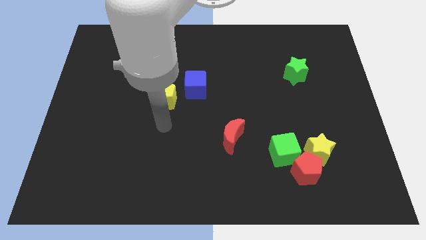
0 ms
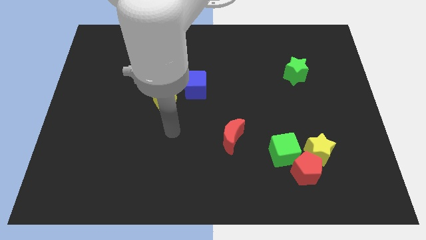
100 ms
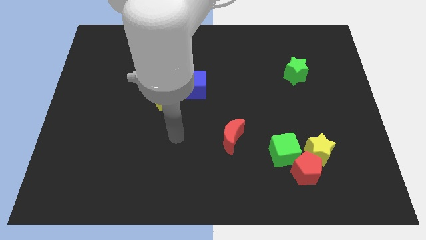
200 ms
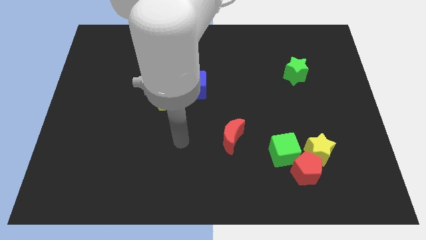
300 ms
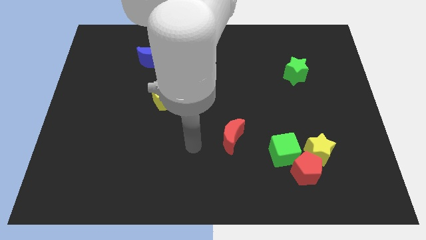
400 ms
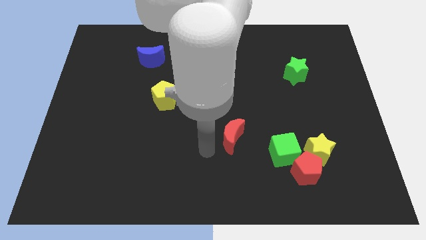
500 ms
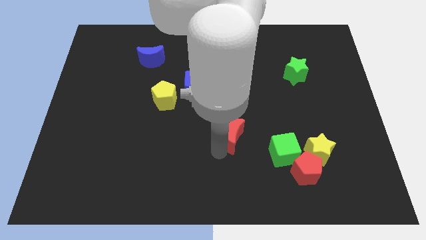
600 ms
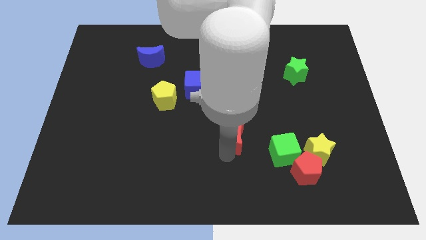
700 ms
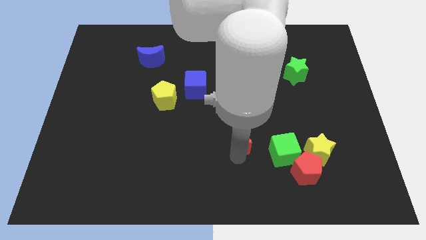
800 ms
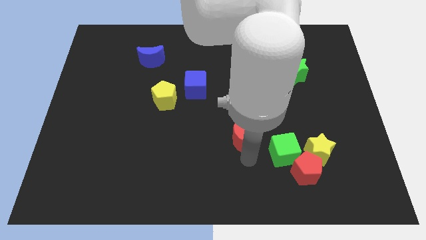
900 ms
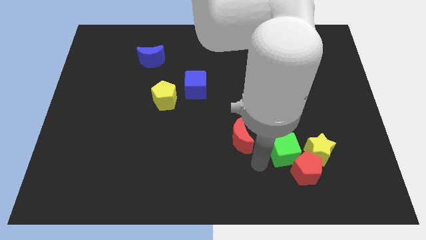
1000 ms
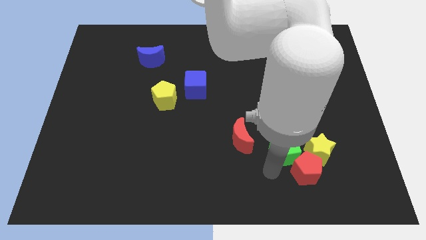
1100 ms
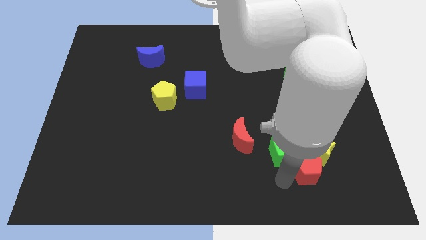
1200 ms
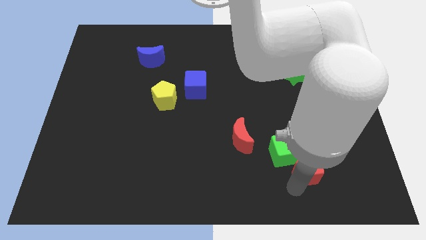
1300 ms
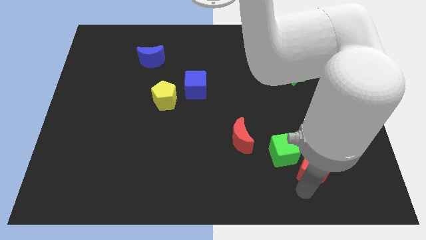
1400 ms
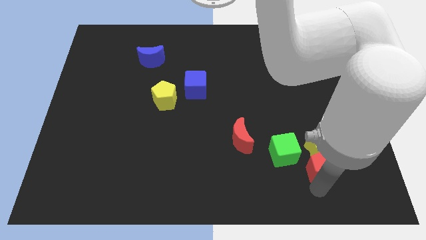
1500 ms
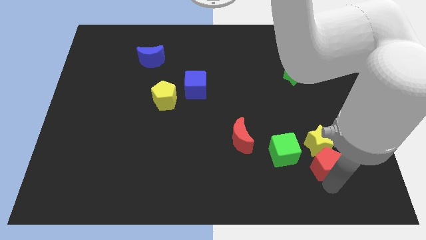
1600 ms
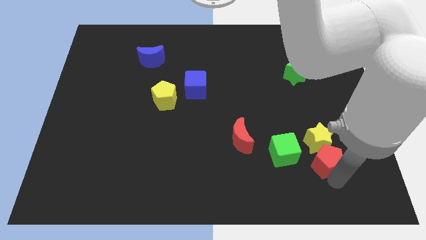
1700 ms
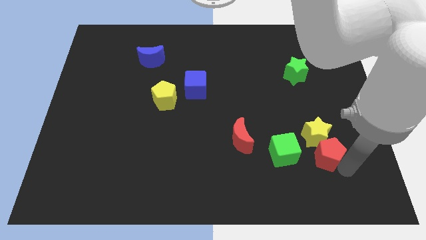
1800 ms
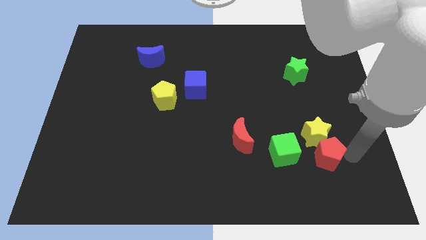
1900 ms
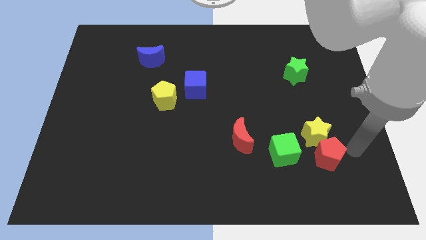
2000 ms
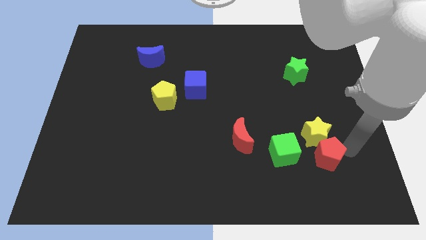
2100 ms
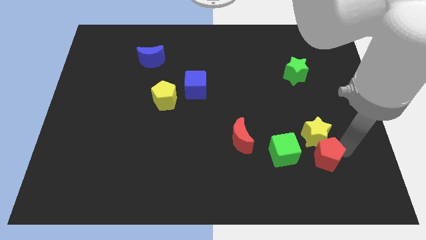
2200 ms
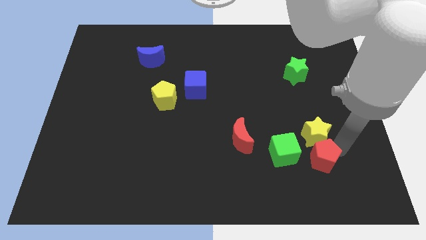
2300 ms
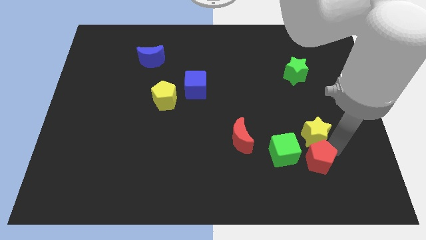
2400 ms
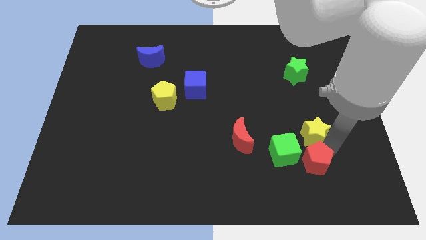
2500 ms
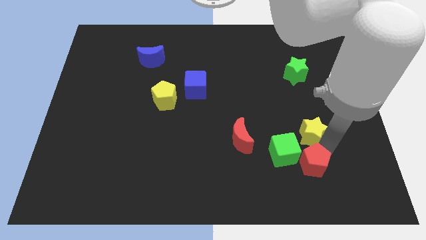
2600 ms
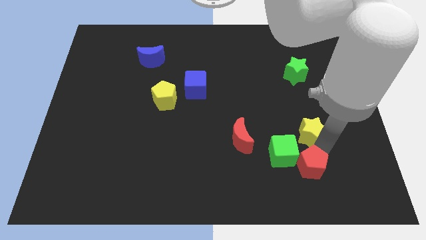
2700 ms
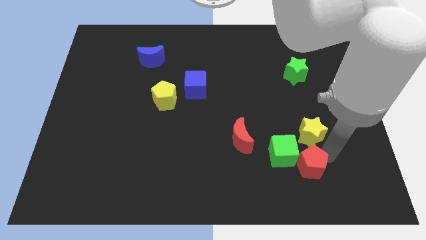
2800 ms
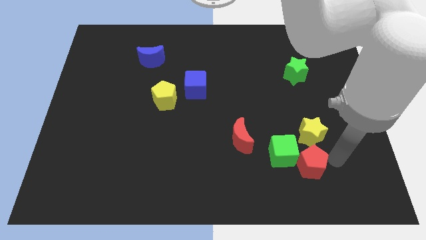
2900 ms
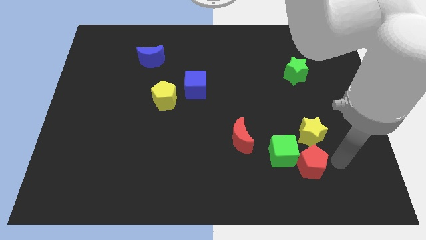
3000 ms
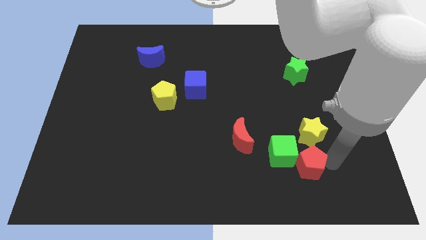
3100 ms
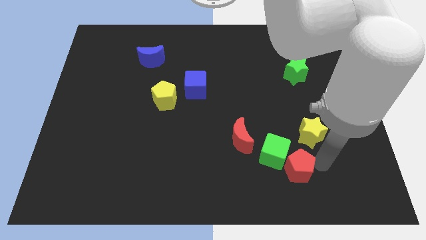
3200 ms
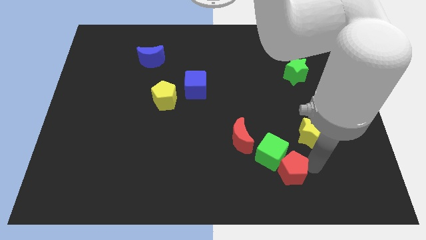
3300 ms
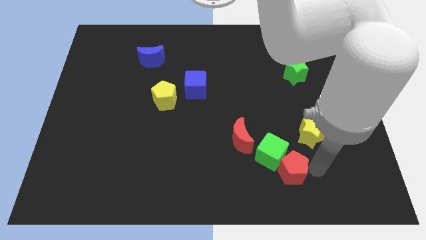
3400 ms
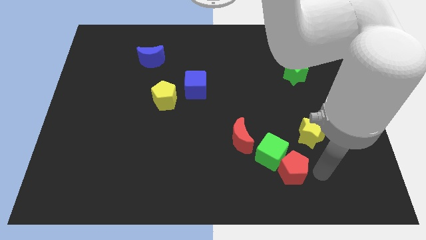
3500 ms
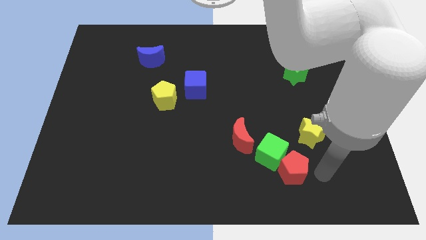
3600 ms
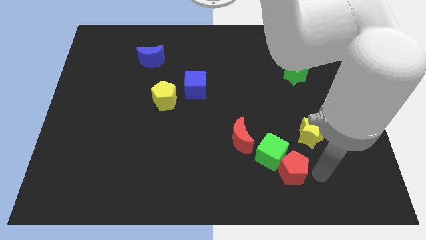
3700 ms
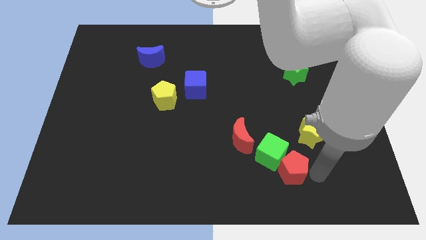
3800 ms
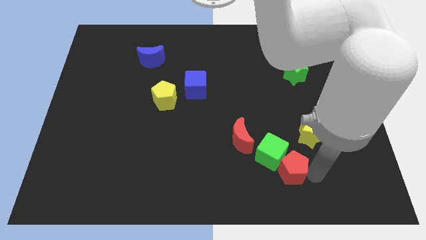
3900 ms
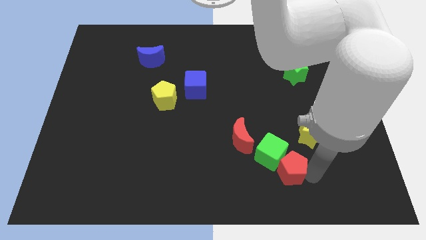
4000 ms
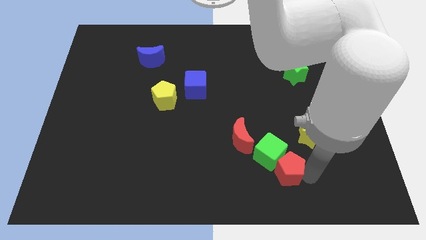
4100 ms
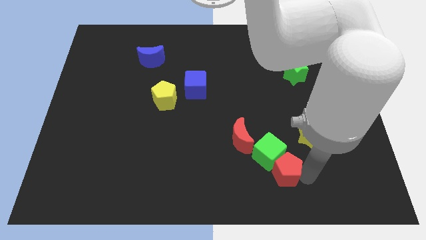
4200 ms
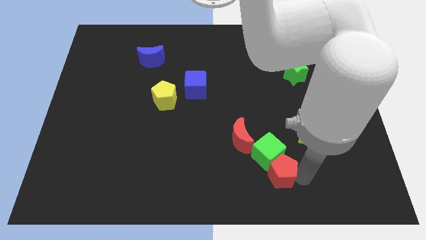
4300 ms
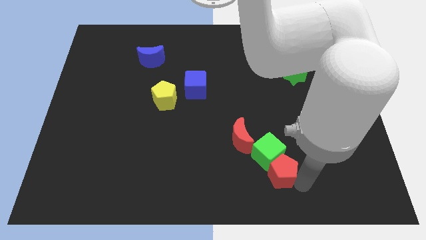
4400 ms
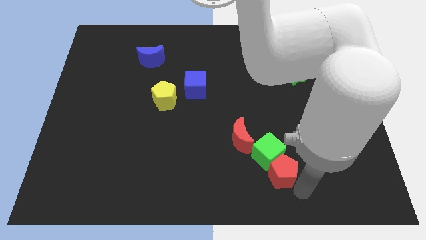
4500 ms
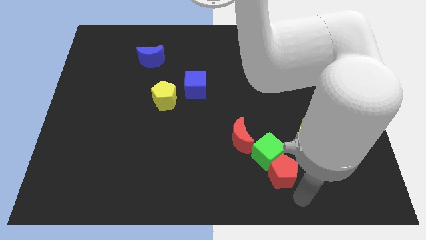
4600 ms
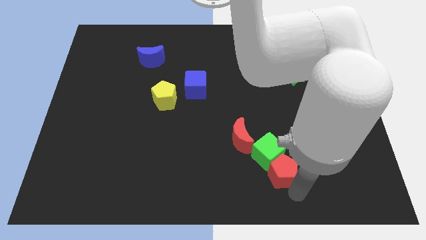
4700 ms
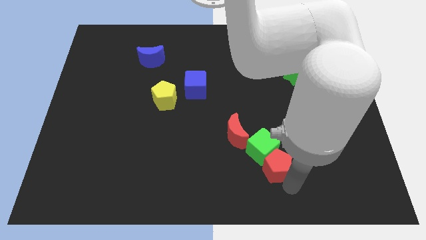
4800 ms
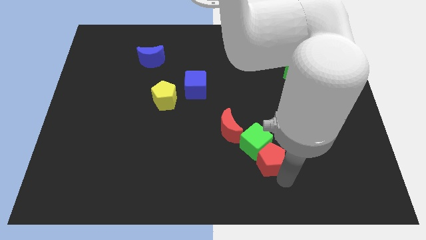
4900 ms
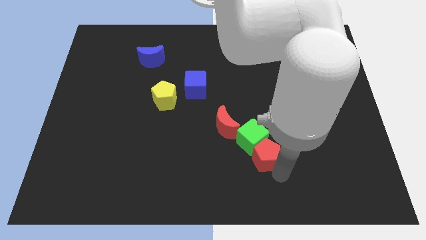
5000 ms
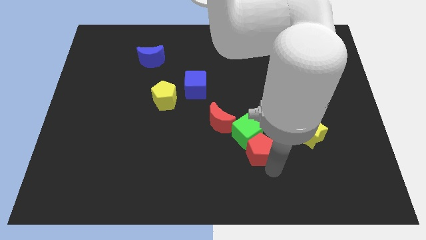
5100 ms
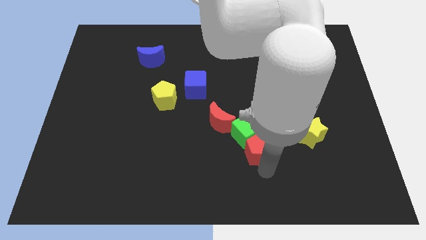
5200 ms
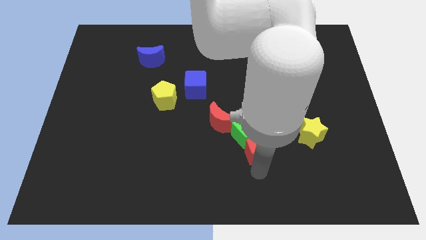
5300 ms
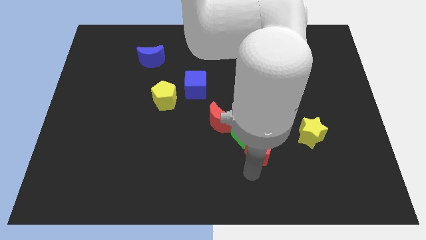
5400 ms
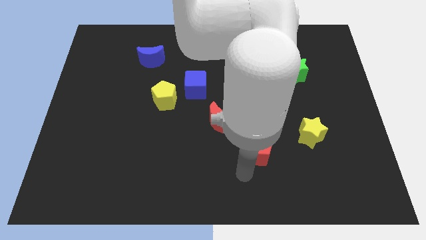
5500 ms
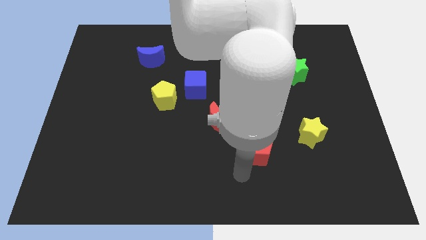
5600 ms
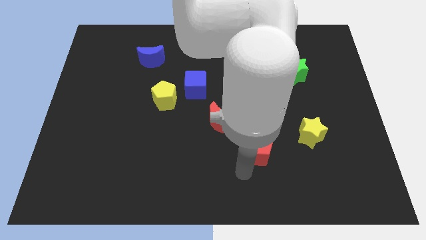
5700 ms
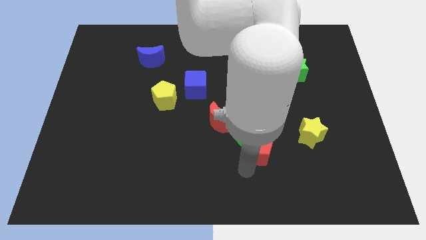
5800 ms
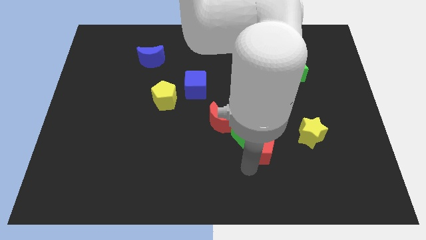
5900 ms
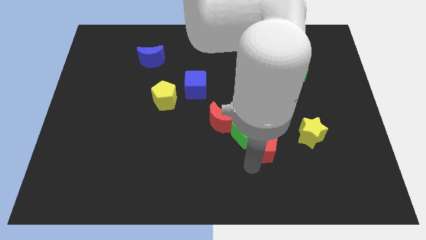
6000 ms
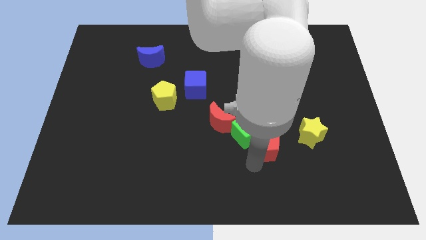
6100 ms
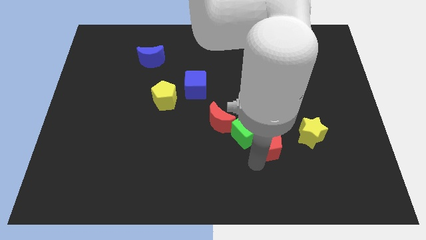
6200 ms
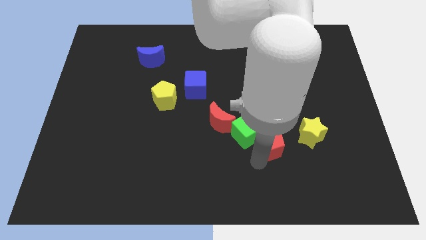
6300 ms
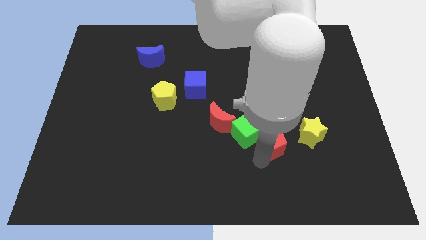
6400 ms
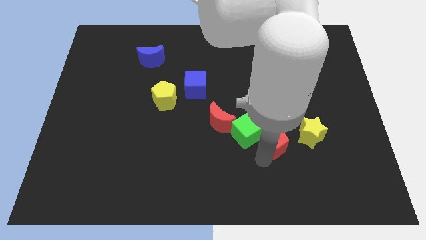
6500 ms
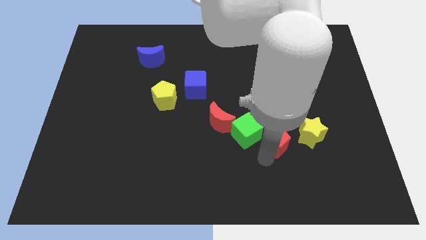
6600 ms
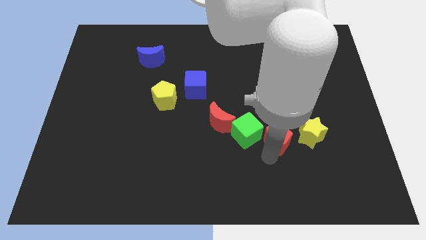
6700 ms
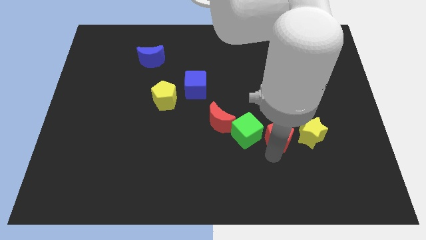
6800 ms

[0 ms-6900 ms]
slide the red pentagon a little bit upwards

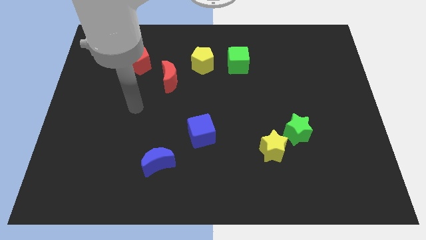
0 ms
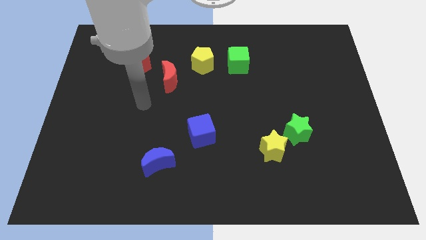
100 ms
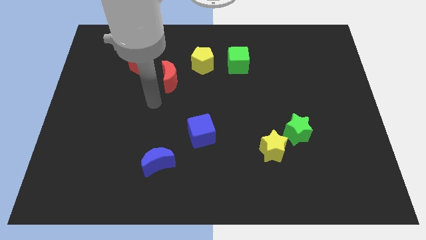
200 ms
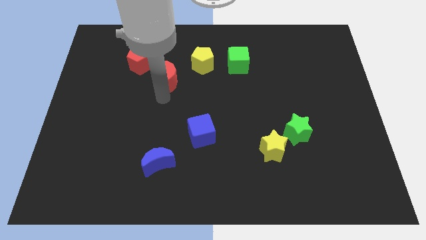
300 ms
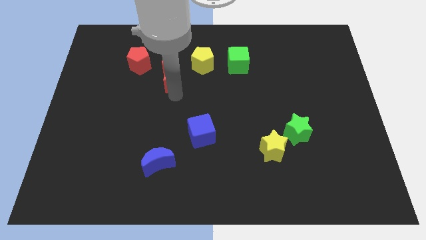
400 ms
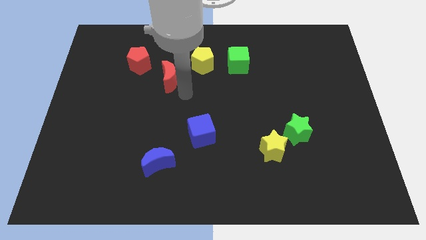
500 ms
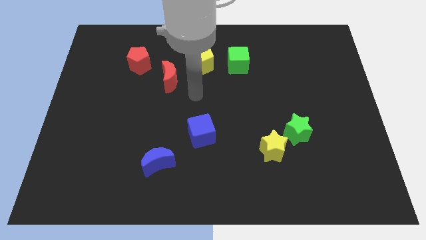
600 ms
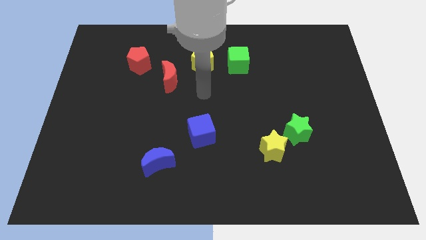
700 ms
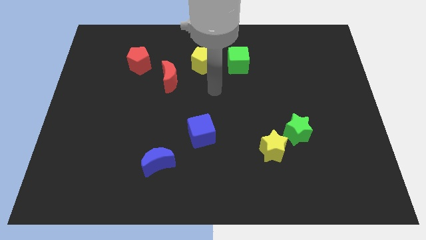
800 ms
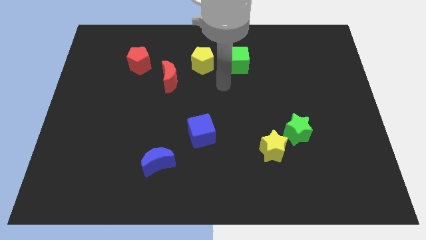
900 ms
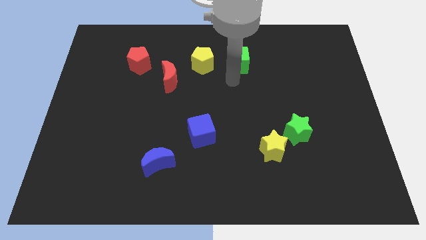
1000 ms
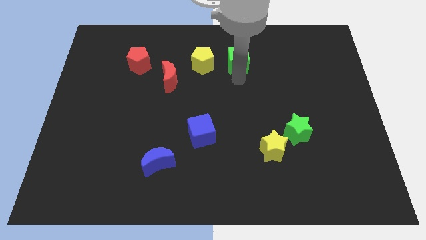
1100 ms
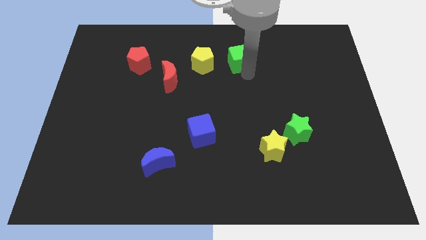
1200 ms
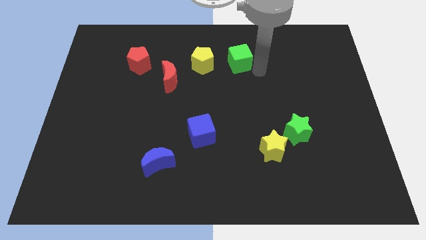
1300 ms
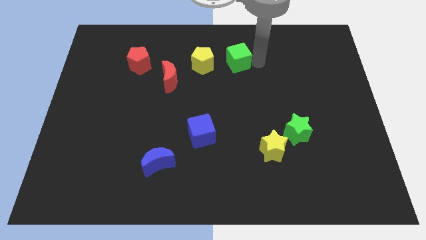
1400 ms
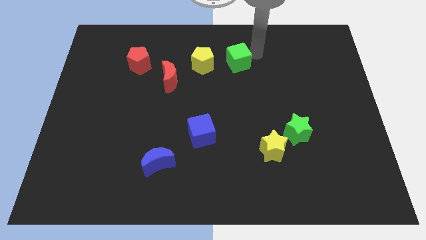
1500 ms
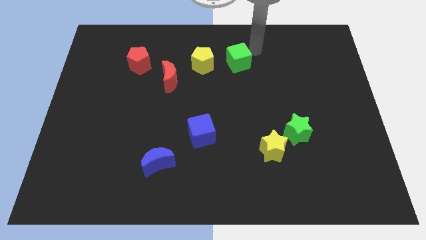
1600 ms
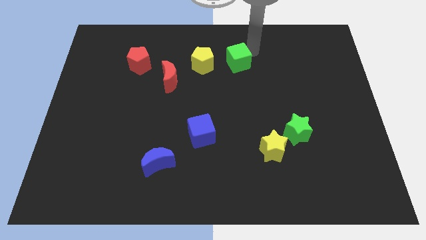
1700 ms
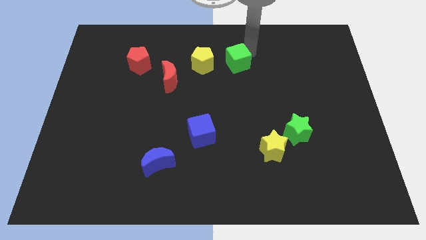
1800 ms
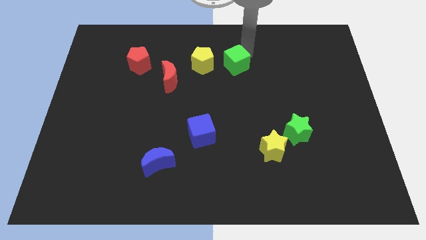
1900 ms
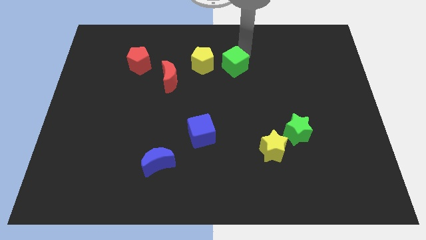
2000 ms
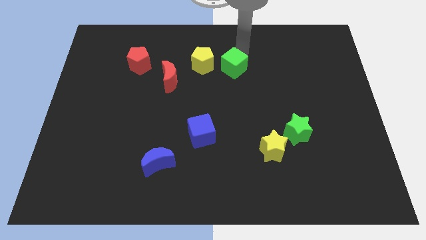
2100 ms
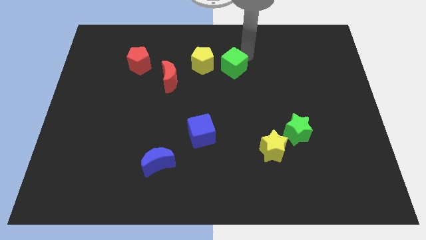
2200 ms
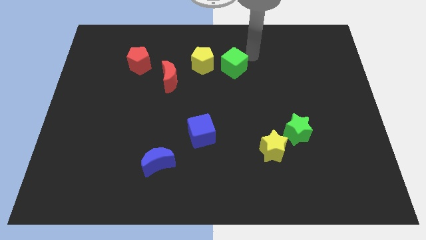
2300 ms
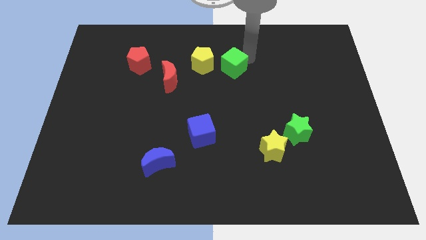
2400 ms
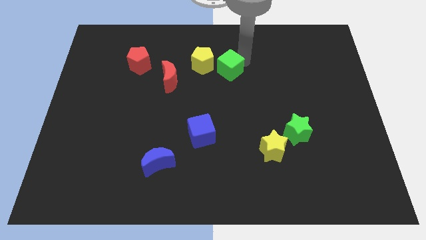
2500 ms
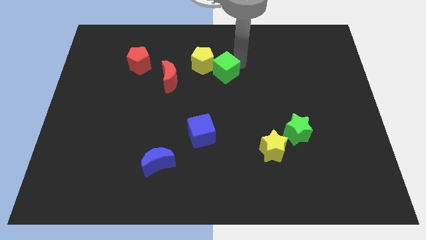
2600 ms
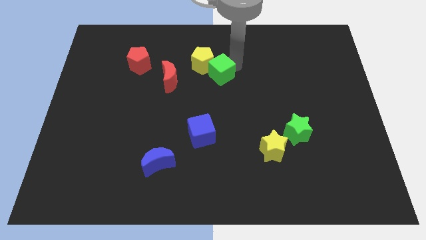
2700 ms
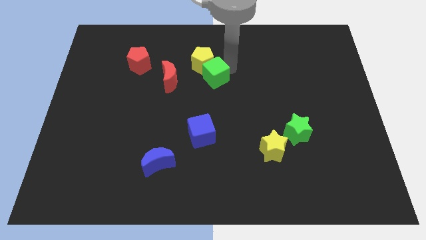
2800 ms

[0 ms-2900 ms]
slightly slide the green cube diagonally down and left
